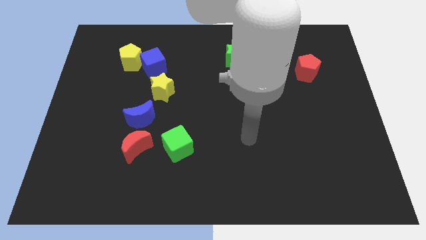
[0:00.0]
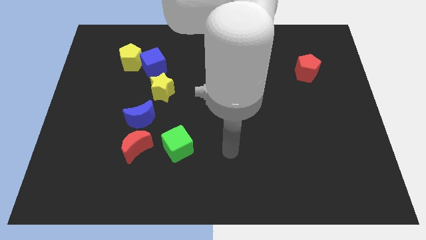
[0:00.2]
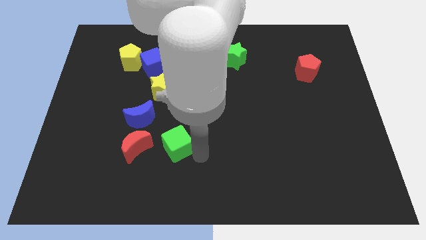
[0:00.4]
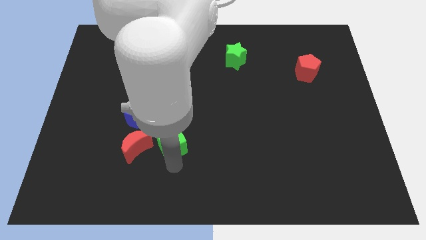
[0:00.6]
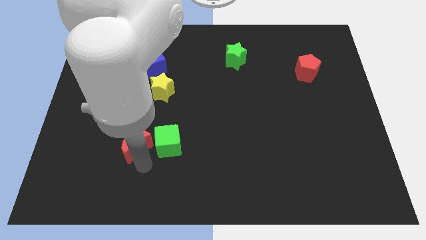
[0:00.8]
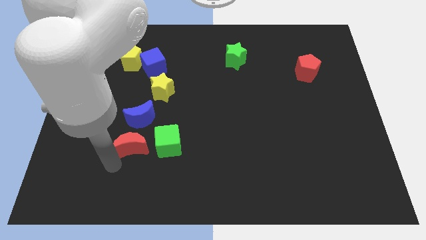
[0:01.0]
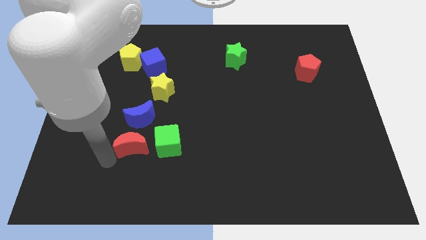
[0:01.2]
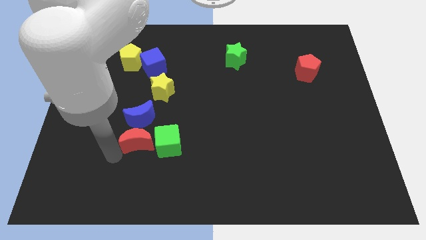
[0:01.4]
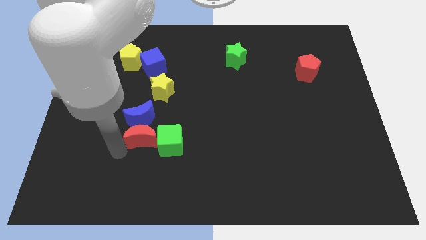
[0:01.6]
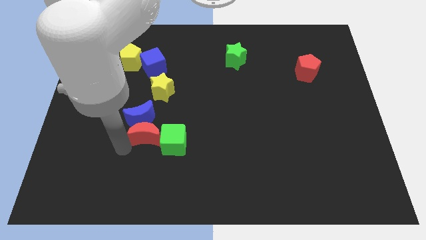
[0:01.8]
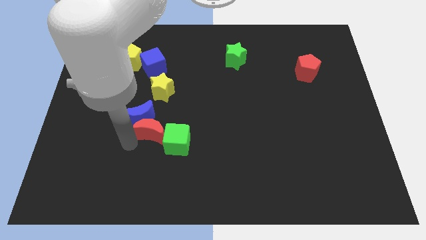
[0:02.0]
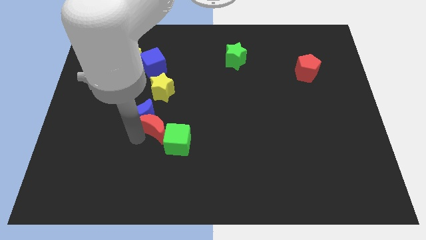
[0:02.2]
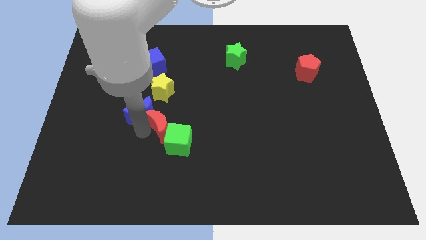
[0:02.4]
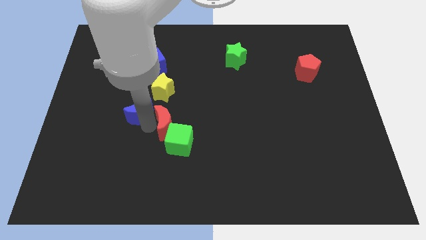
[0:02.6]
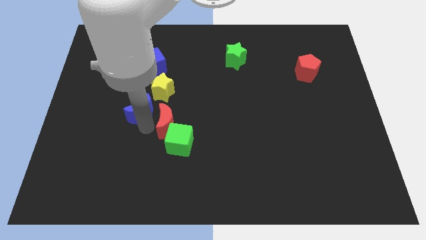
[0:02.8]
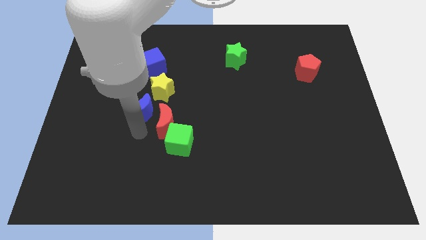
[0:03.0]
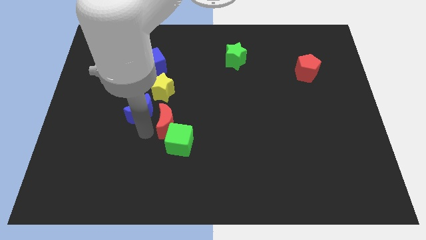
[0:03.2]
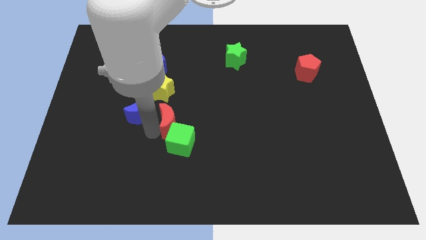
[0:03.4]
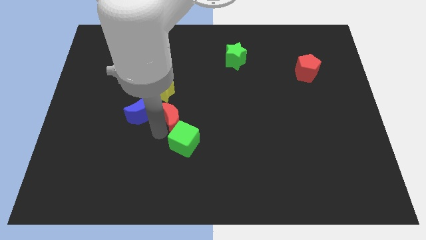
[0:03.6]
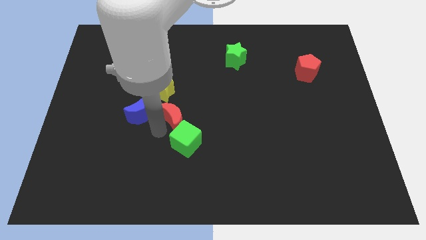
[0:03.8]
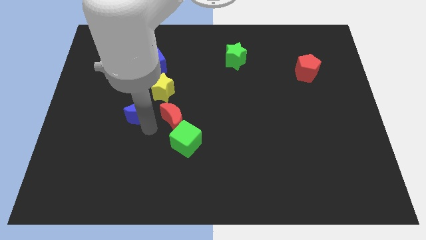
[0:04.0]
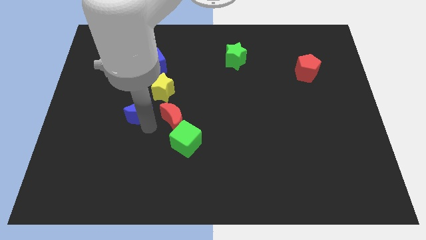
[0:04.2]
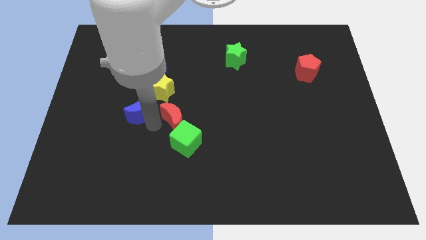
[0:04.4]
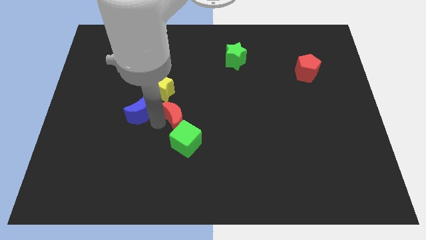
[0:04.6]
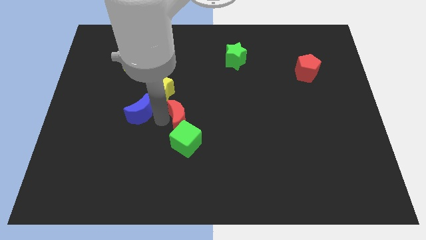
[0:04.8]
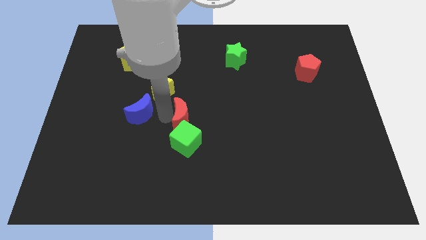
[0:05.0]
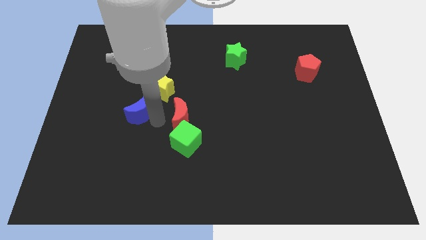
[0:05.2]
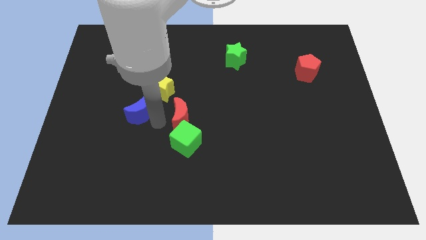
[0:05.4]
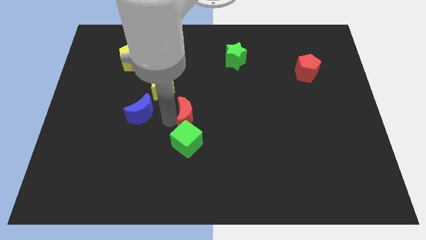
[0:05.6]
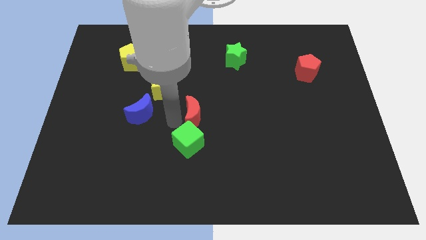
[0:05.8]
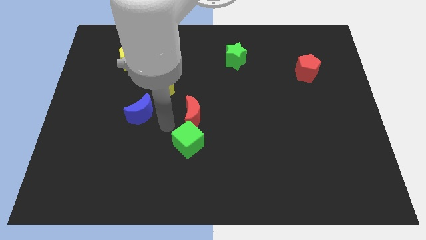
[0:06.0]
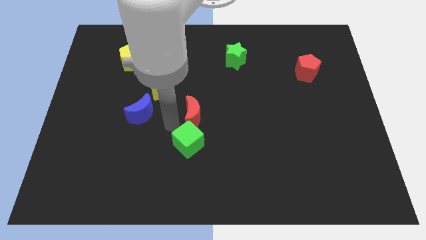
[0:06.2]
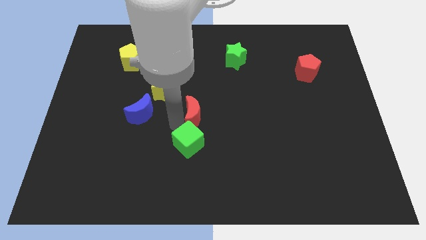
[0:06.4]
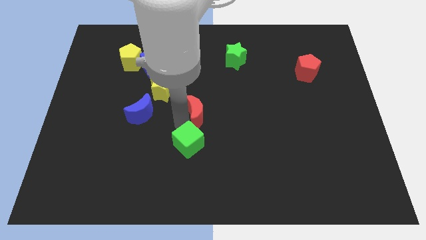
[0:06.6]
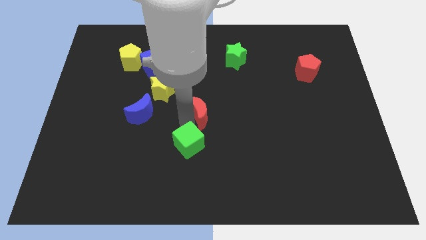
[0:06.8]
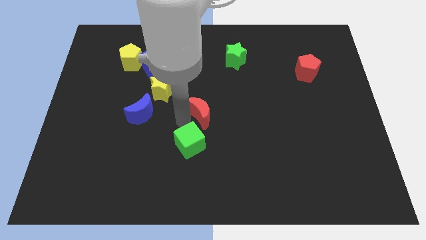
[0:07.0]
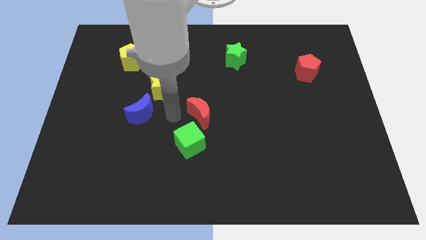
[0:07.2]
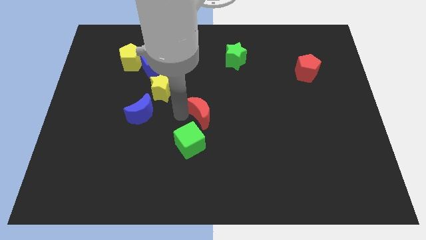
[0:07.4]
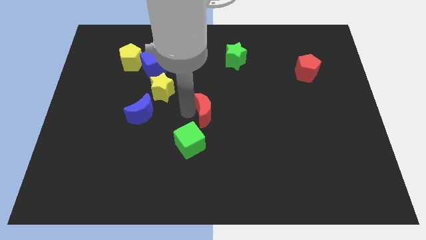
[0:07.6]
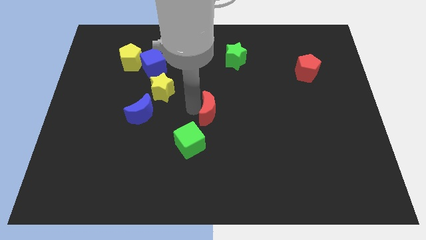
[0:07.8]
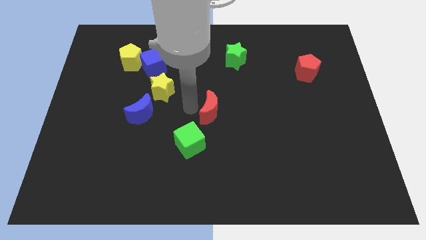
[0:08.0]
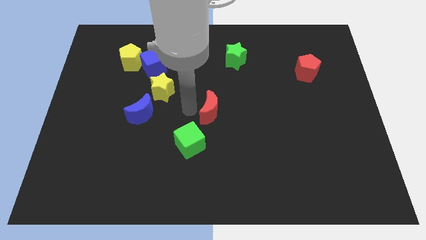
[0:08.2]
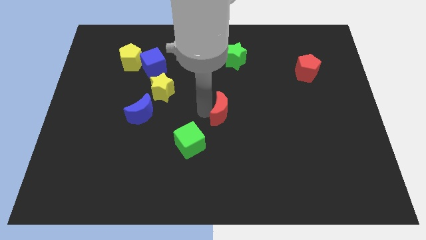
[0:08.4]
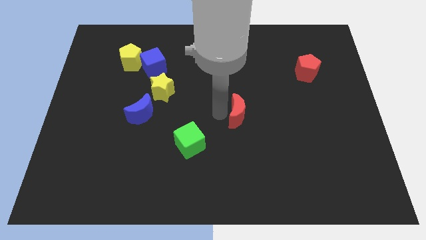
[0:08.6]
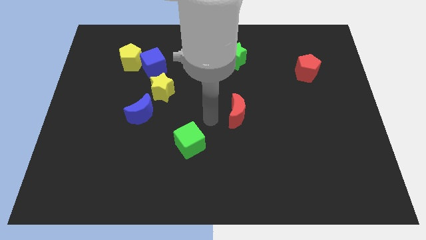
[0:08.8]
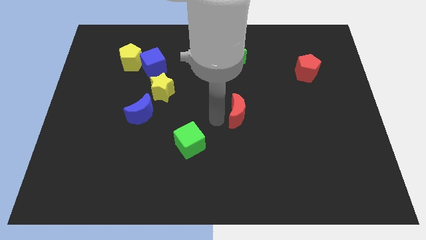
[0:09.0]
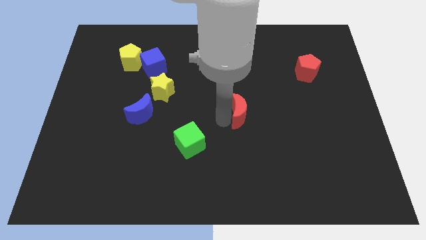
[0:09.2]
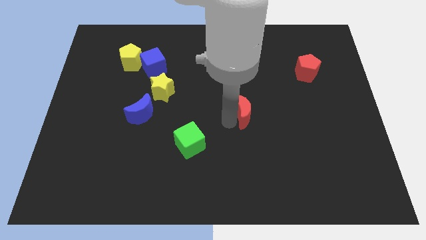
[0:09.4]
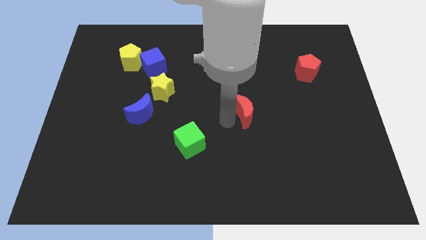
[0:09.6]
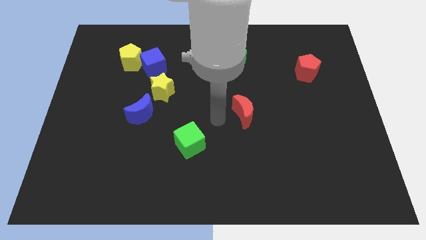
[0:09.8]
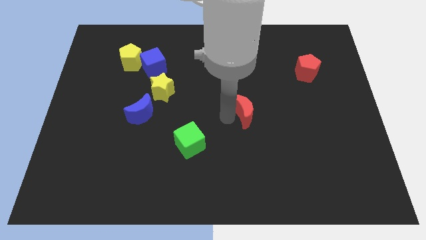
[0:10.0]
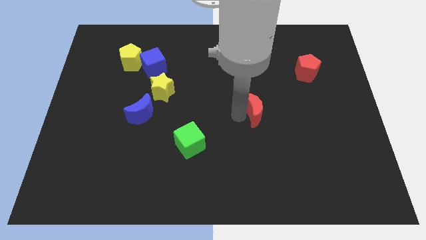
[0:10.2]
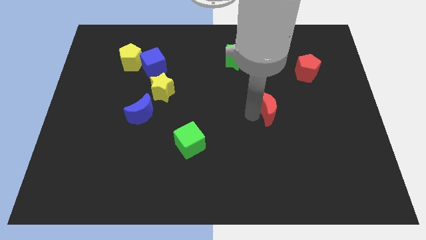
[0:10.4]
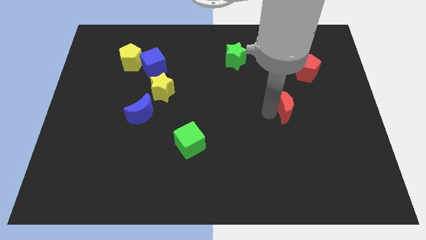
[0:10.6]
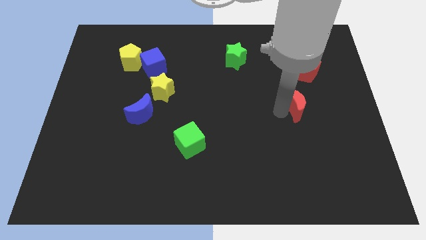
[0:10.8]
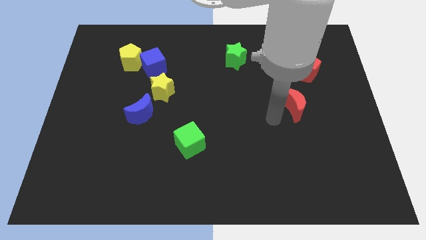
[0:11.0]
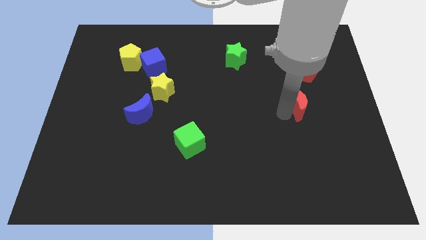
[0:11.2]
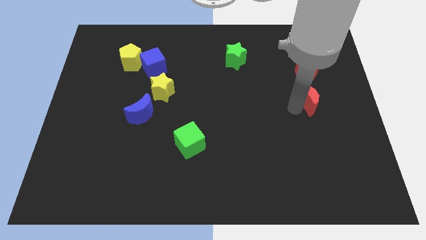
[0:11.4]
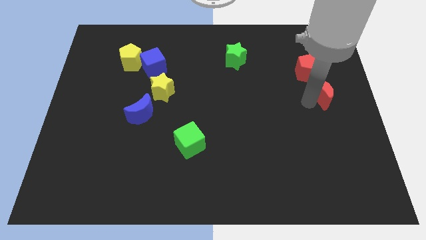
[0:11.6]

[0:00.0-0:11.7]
put the red moon to the bottom right of the red pentagon

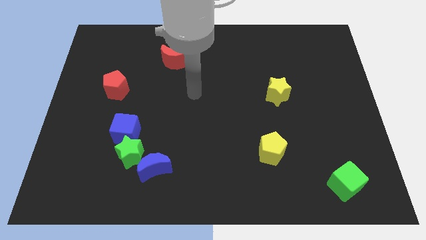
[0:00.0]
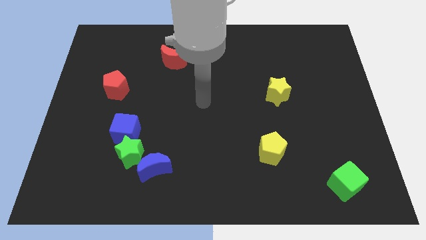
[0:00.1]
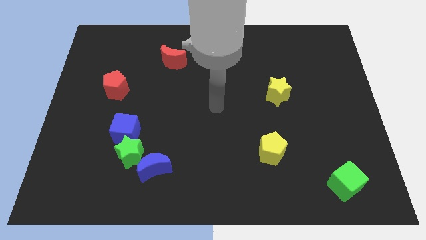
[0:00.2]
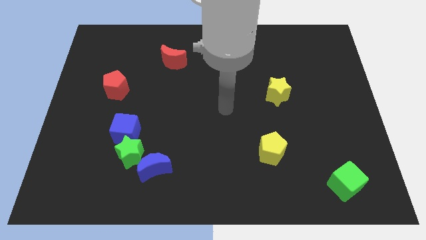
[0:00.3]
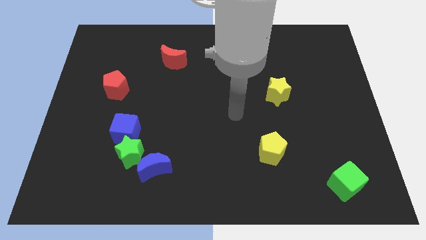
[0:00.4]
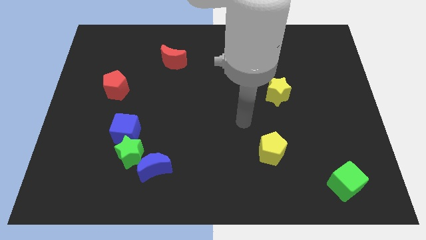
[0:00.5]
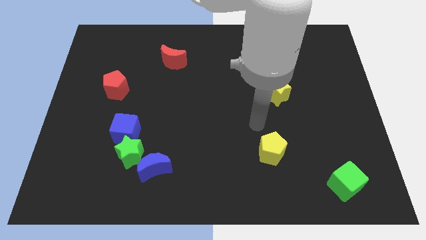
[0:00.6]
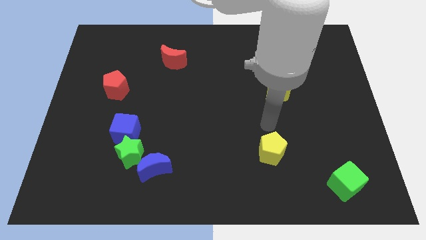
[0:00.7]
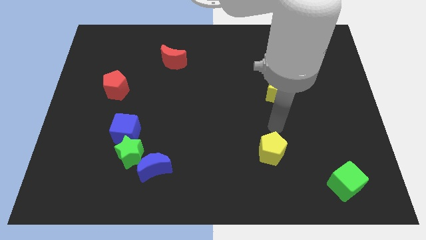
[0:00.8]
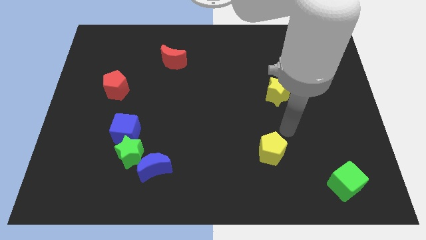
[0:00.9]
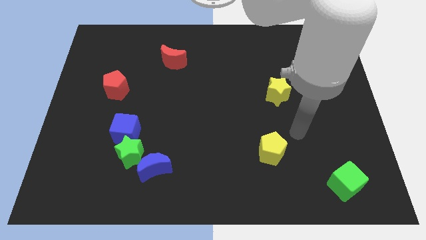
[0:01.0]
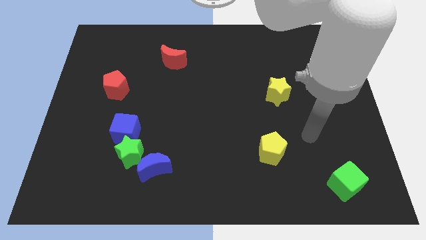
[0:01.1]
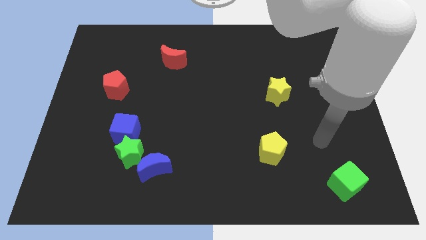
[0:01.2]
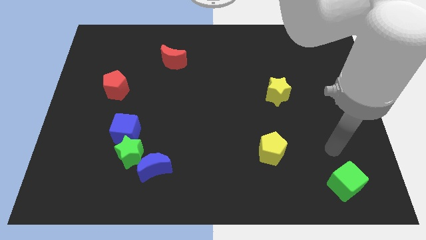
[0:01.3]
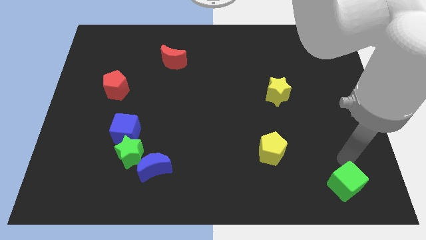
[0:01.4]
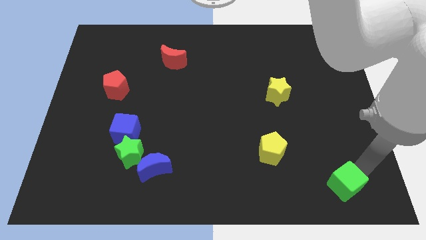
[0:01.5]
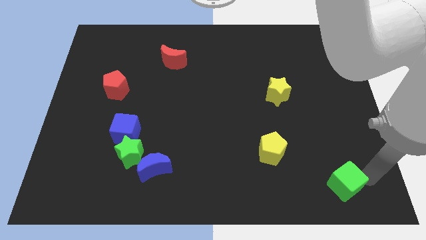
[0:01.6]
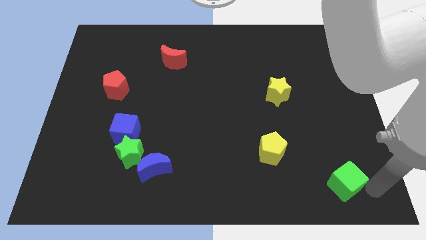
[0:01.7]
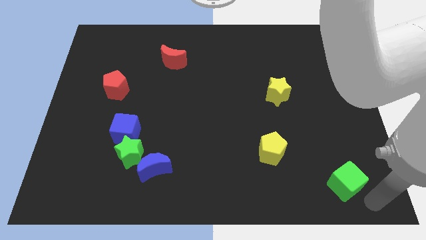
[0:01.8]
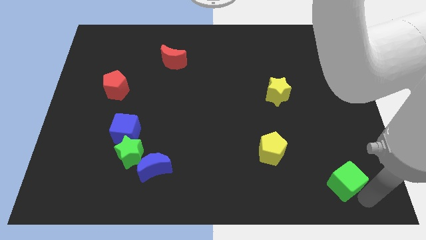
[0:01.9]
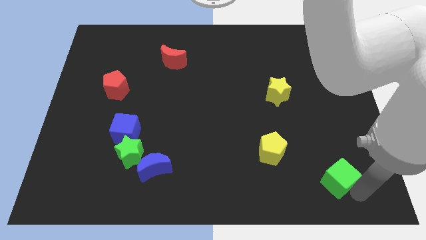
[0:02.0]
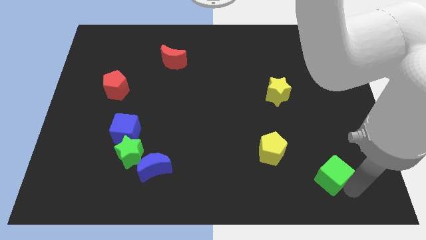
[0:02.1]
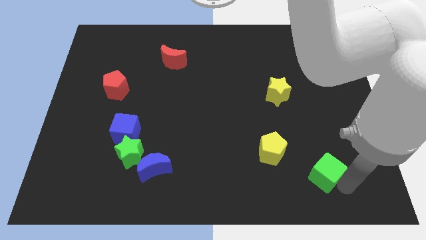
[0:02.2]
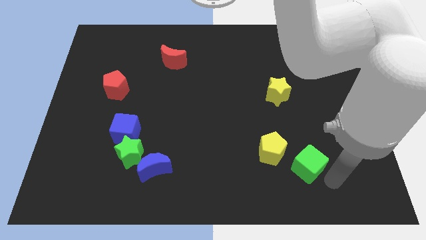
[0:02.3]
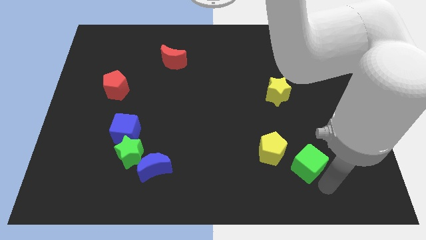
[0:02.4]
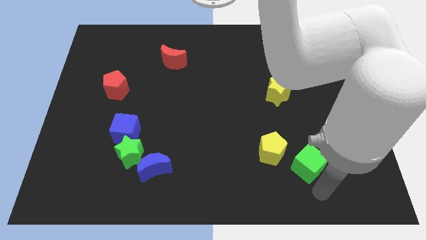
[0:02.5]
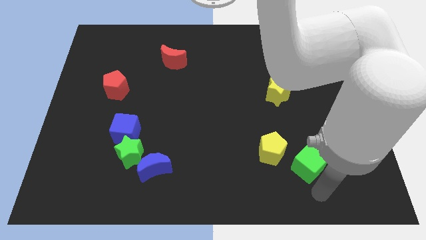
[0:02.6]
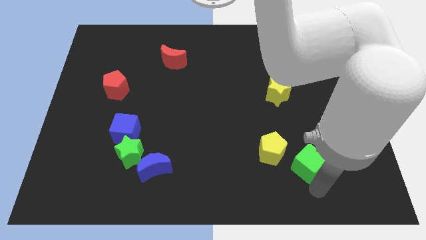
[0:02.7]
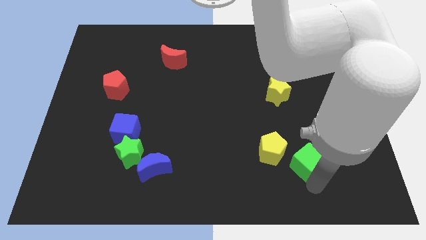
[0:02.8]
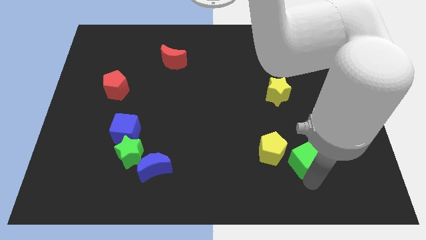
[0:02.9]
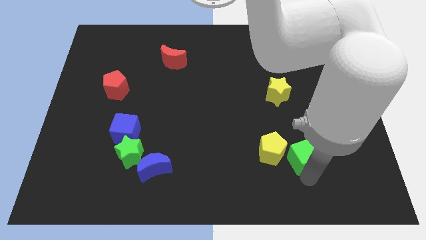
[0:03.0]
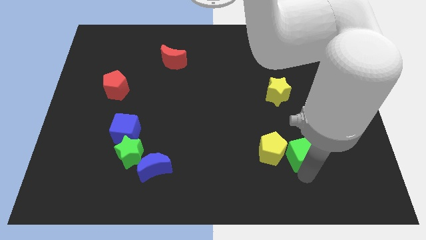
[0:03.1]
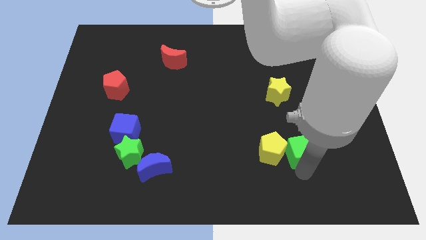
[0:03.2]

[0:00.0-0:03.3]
move the green cube diagonally up and to the right of the yellow pentagon
